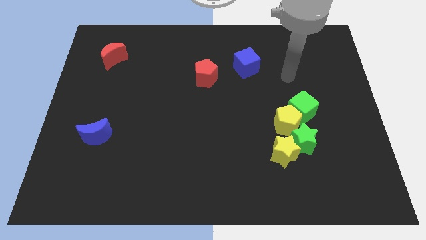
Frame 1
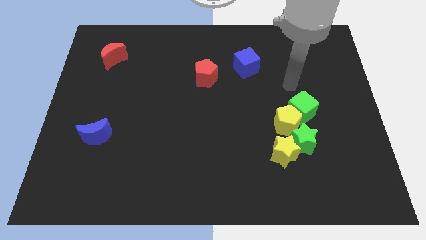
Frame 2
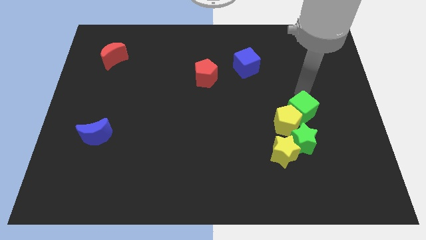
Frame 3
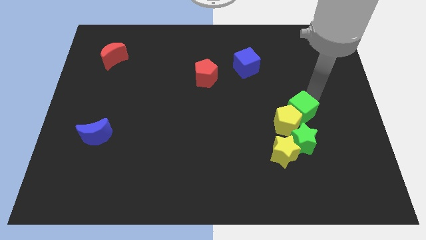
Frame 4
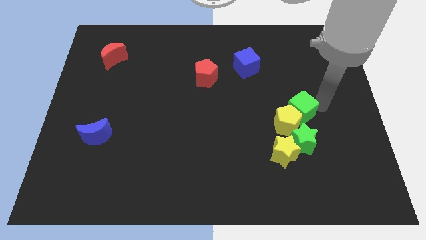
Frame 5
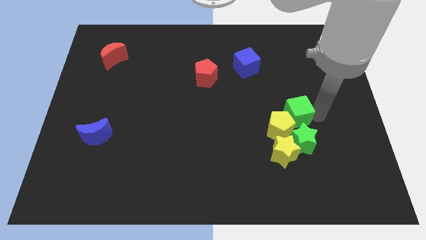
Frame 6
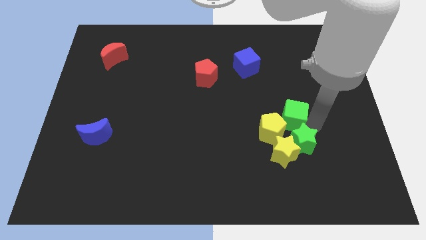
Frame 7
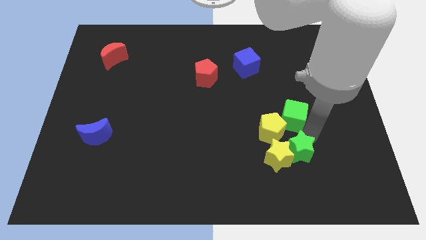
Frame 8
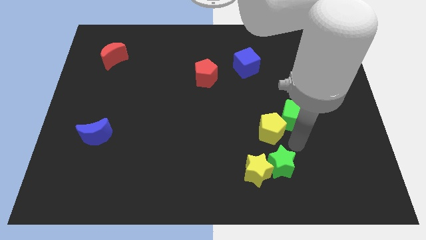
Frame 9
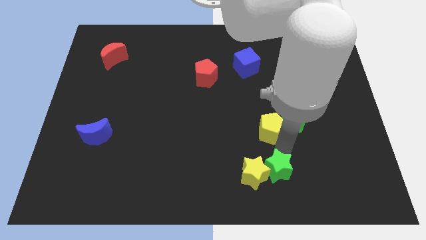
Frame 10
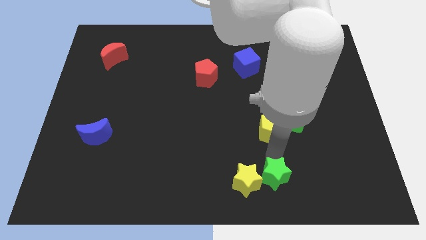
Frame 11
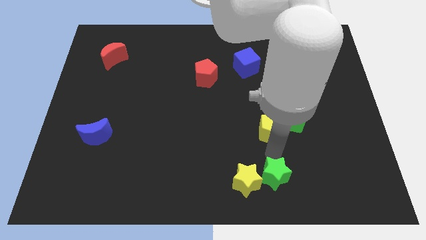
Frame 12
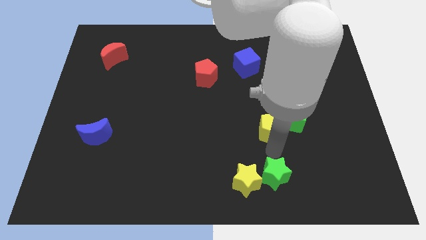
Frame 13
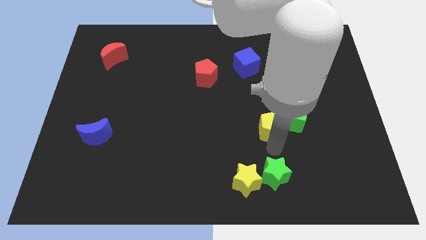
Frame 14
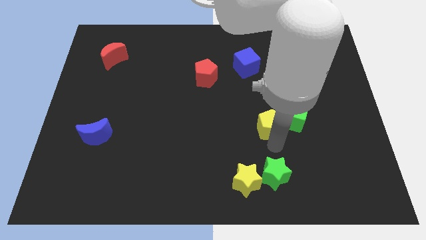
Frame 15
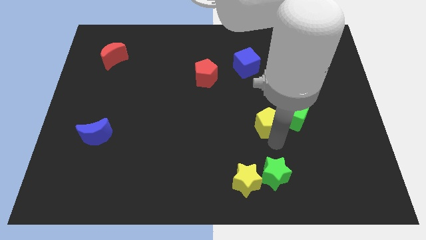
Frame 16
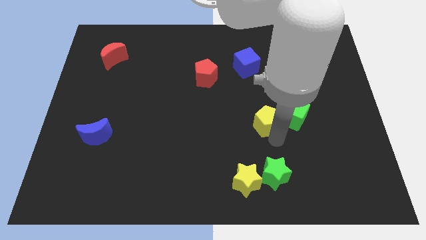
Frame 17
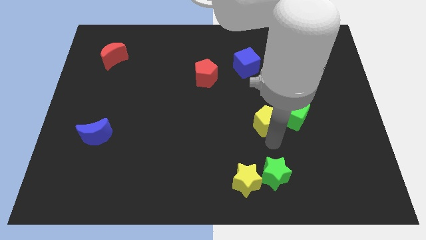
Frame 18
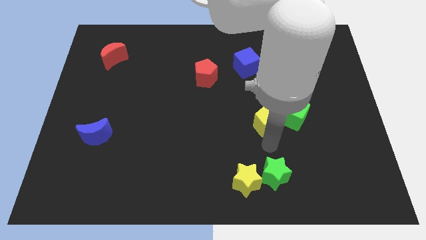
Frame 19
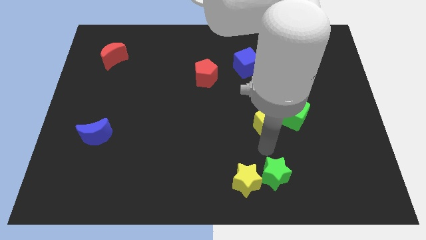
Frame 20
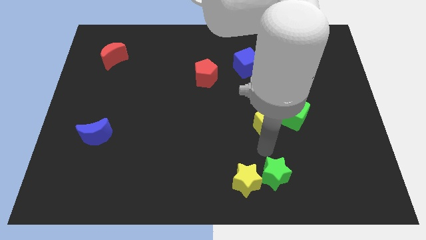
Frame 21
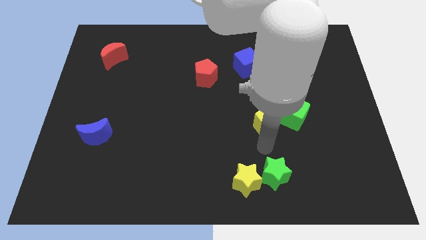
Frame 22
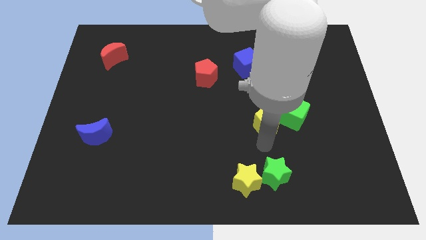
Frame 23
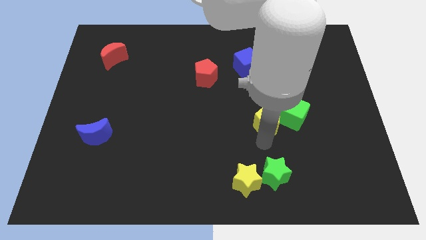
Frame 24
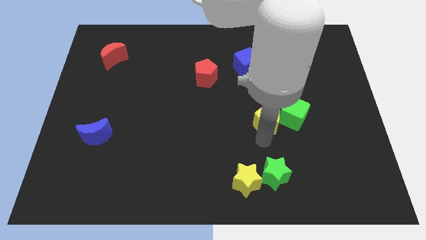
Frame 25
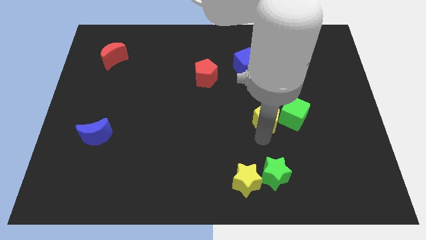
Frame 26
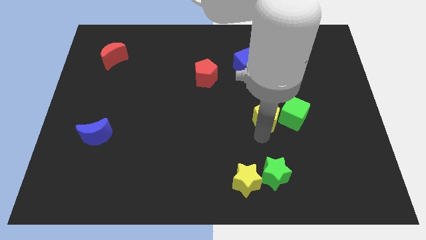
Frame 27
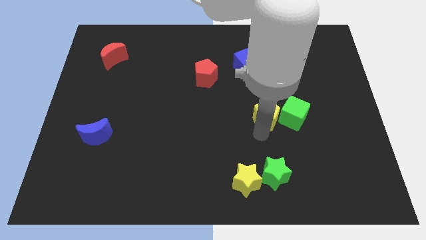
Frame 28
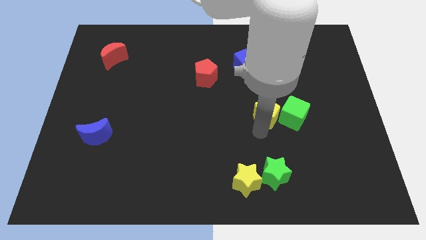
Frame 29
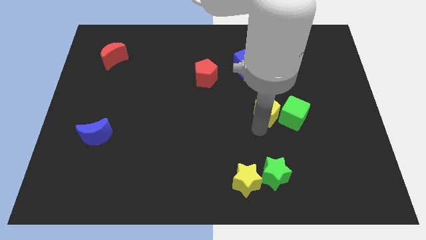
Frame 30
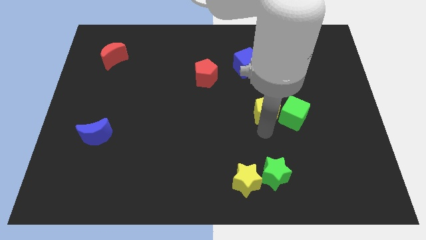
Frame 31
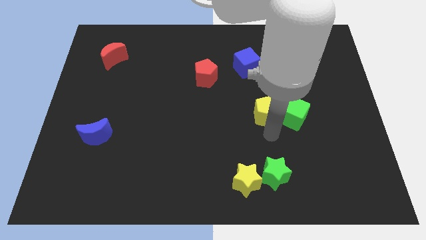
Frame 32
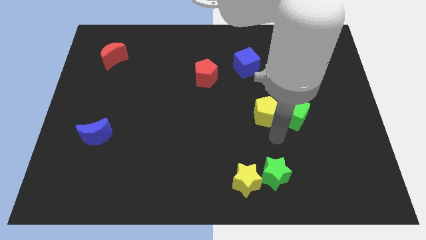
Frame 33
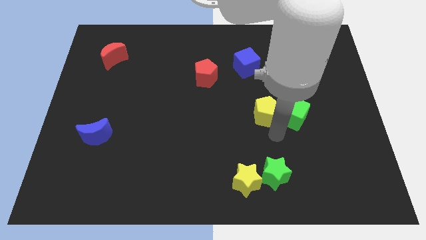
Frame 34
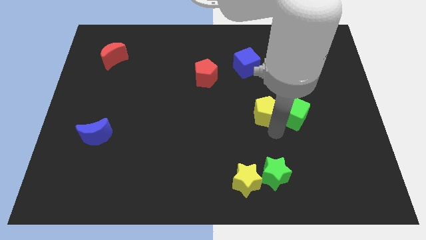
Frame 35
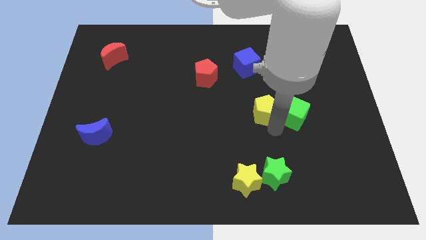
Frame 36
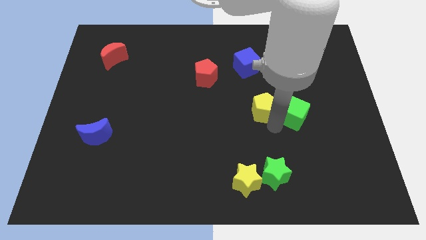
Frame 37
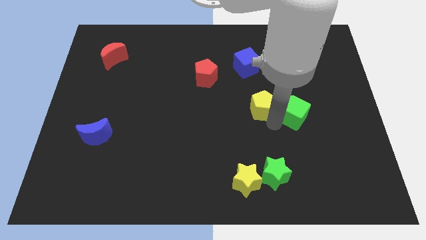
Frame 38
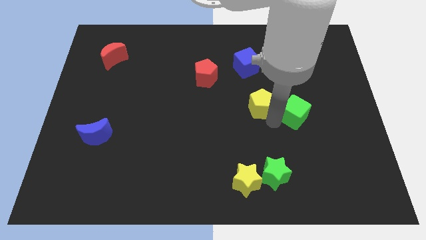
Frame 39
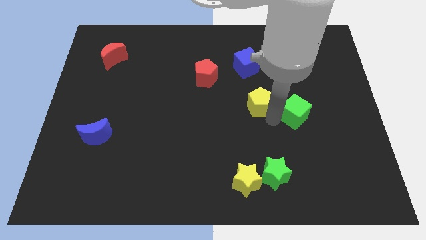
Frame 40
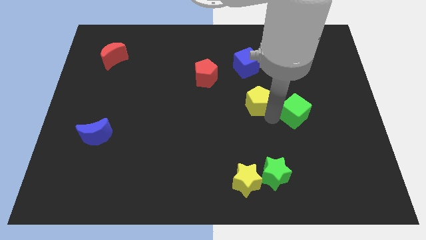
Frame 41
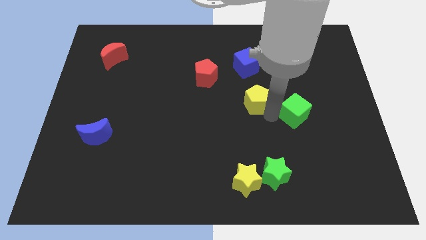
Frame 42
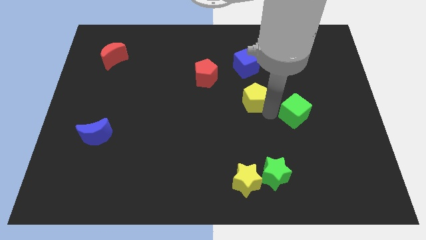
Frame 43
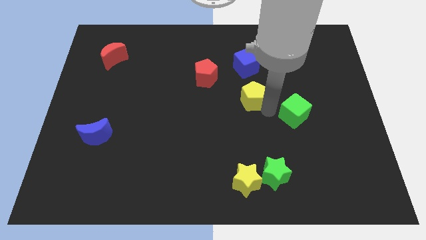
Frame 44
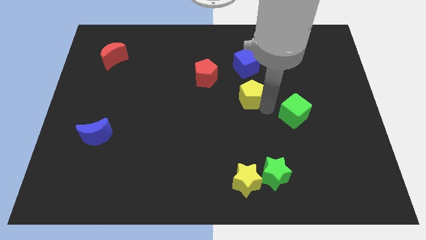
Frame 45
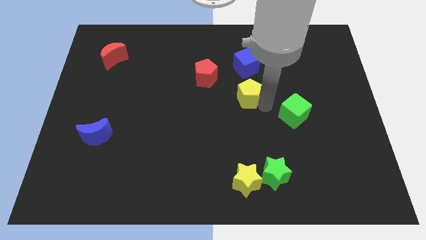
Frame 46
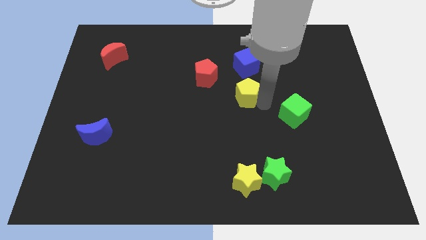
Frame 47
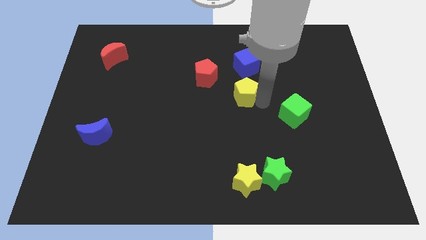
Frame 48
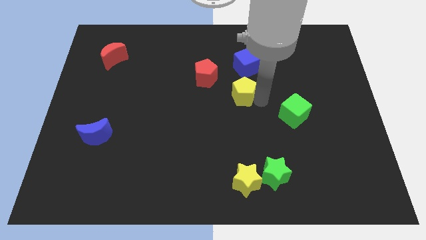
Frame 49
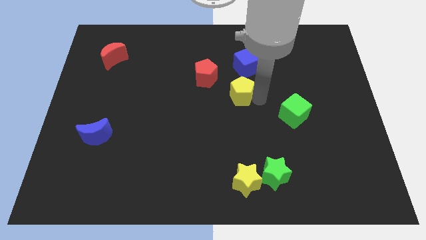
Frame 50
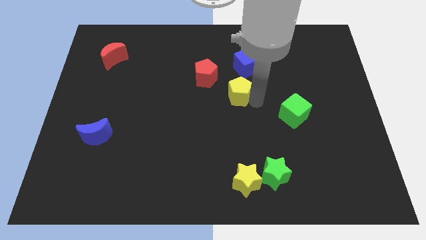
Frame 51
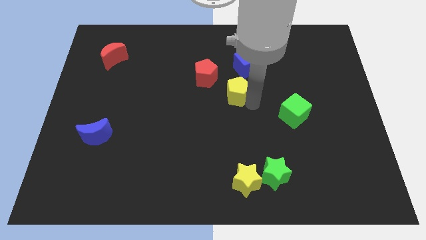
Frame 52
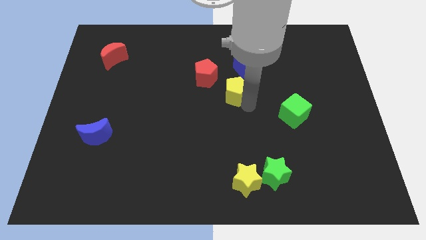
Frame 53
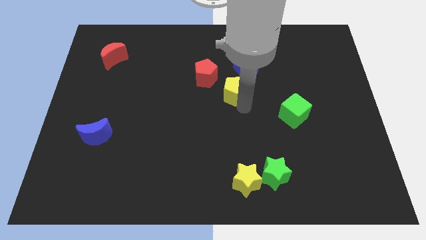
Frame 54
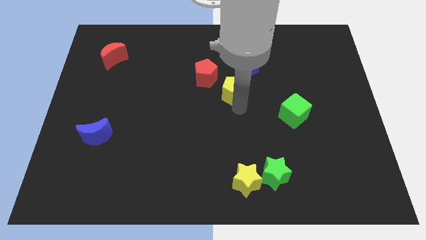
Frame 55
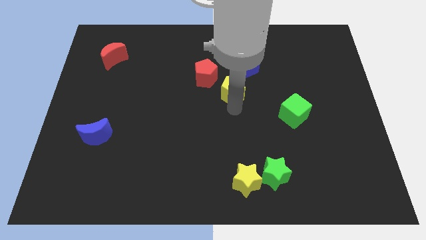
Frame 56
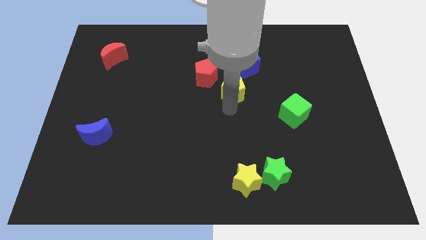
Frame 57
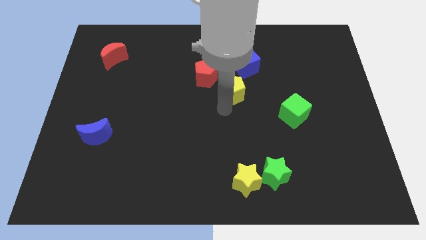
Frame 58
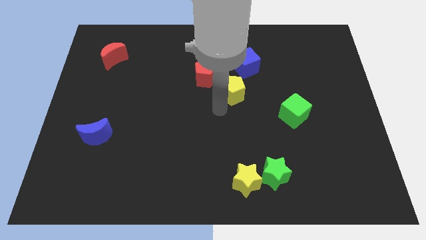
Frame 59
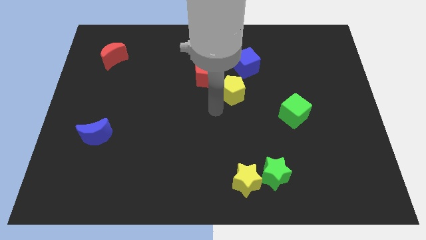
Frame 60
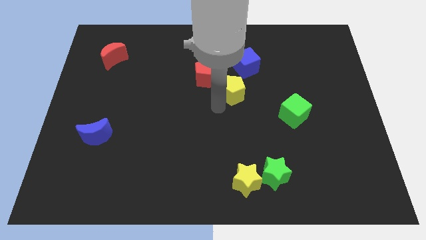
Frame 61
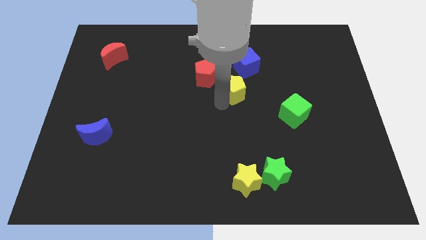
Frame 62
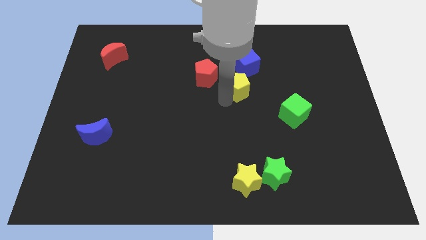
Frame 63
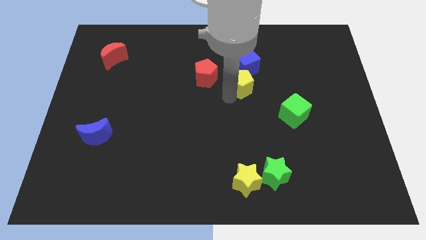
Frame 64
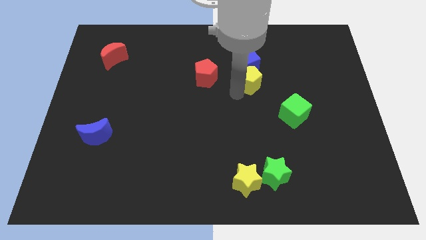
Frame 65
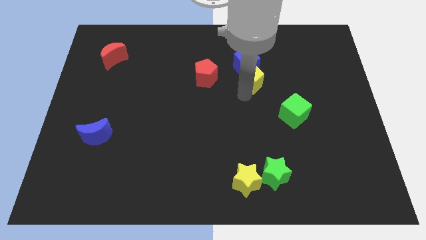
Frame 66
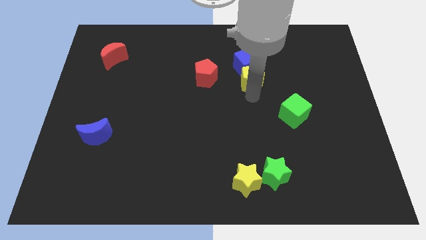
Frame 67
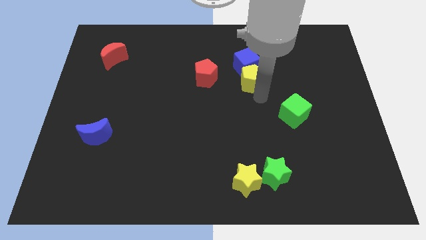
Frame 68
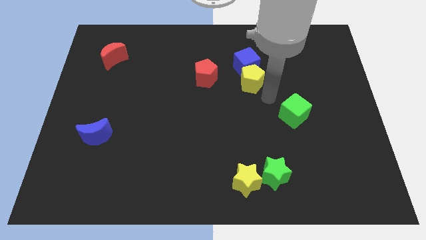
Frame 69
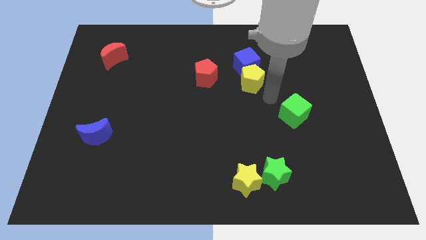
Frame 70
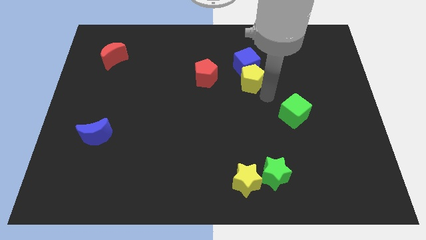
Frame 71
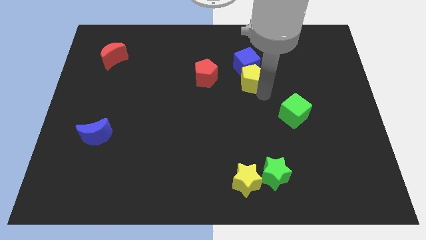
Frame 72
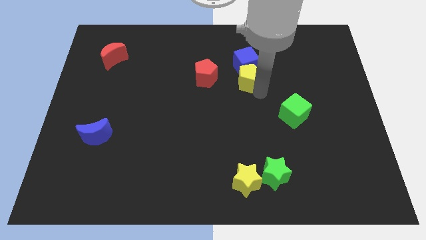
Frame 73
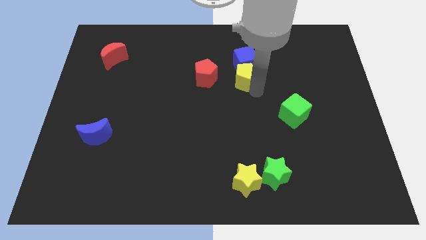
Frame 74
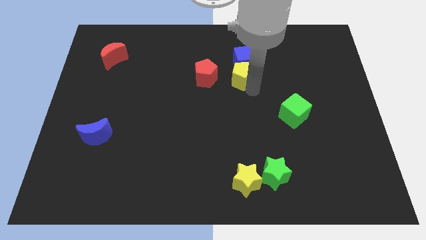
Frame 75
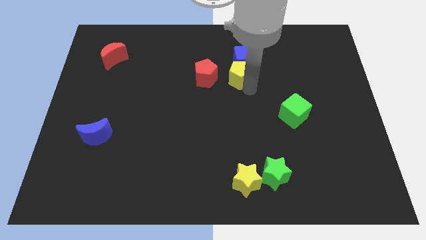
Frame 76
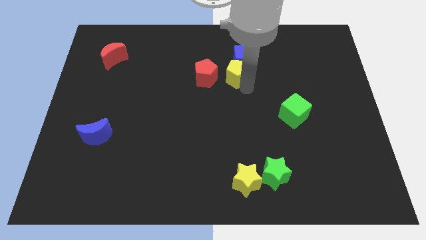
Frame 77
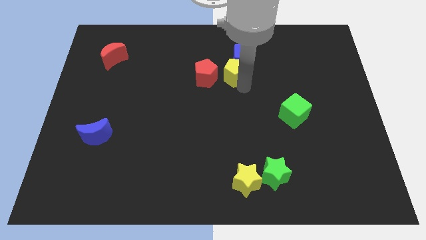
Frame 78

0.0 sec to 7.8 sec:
move the yellow pentagon diagonally up and to the right of the red pentagon

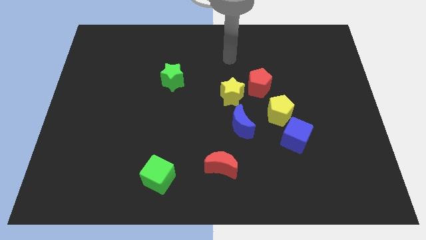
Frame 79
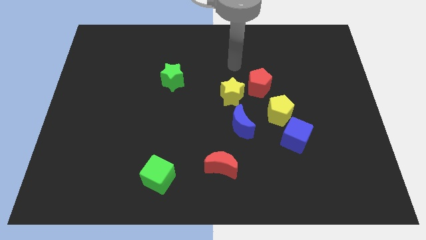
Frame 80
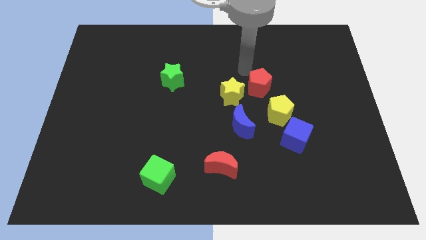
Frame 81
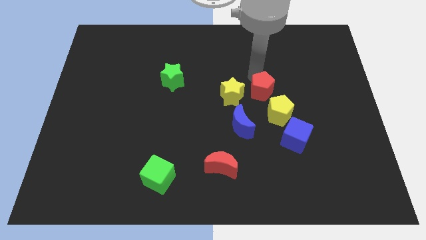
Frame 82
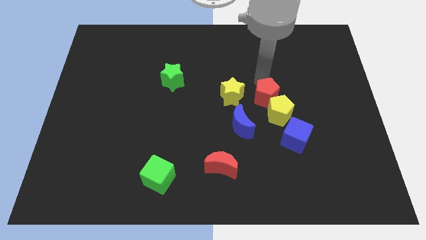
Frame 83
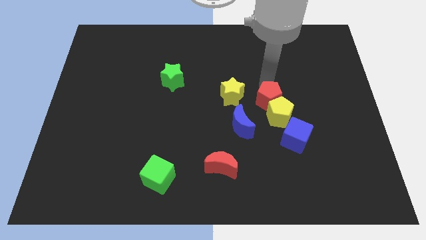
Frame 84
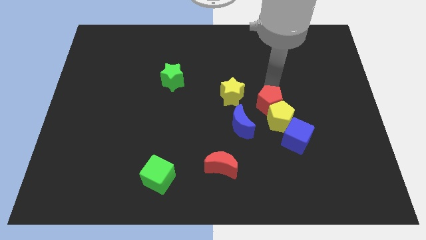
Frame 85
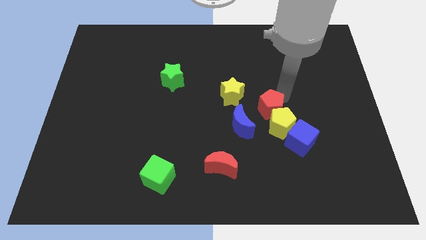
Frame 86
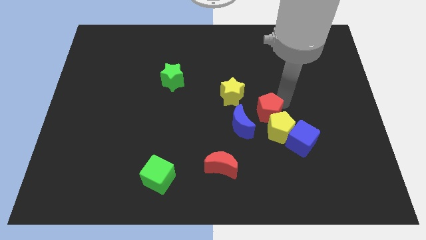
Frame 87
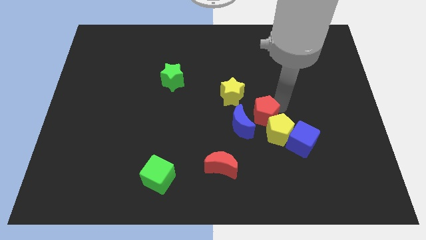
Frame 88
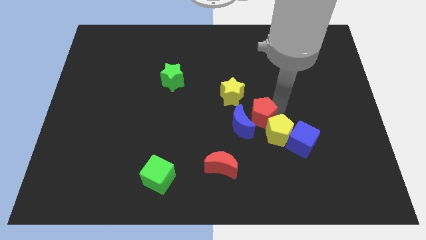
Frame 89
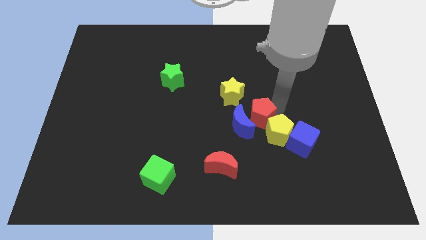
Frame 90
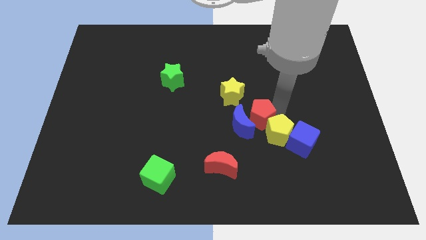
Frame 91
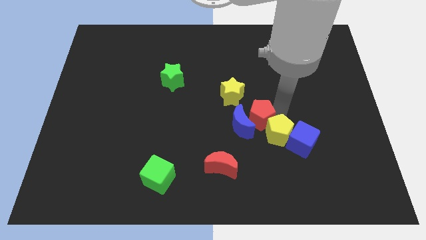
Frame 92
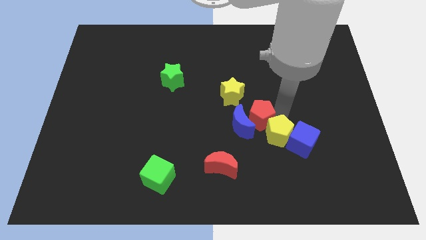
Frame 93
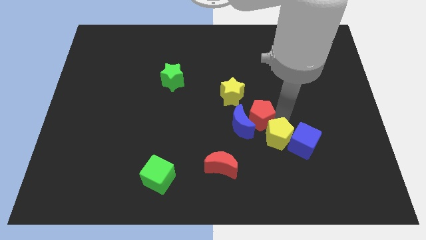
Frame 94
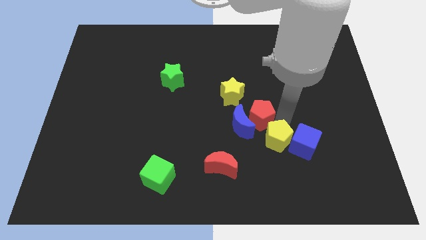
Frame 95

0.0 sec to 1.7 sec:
move the yellow pentagon diagonally down and to the left of the blue cube
